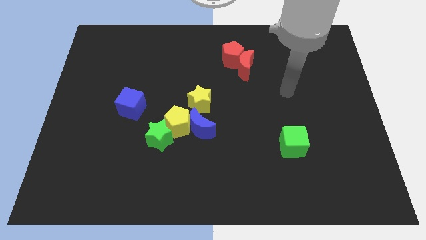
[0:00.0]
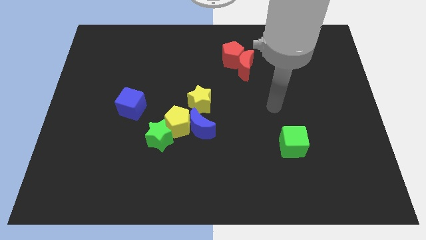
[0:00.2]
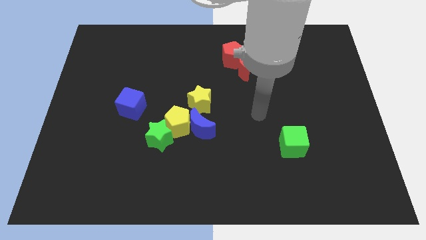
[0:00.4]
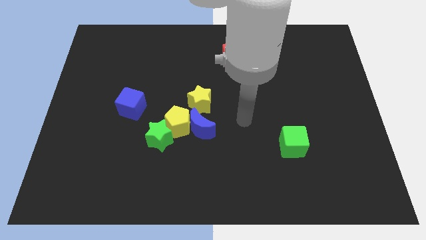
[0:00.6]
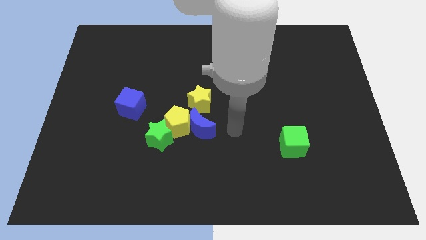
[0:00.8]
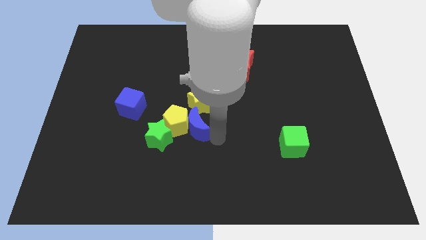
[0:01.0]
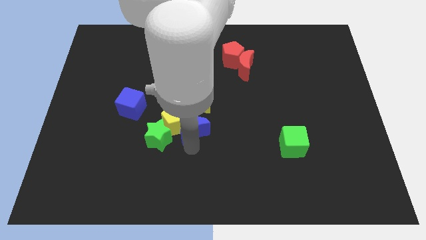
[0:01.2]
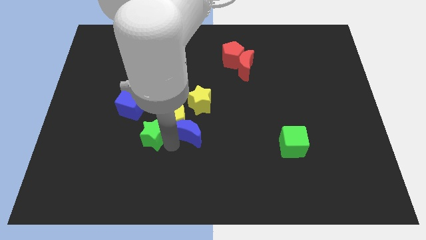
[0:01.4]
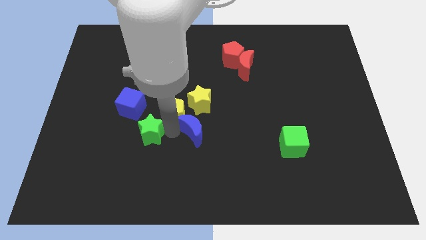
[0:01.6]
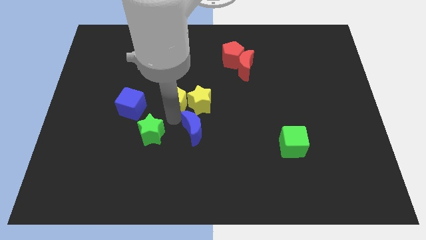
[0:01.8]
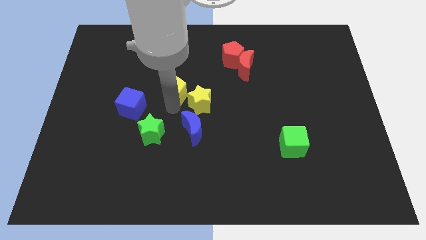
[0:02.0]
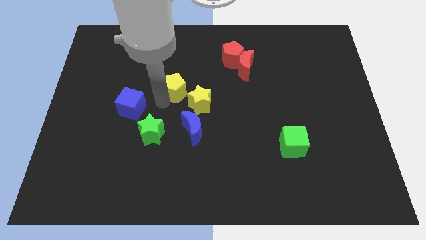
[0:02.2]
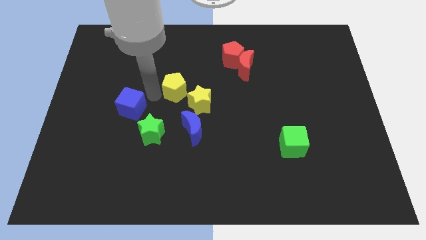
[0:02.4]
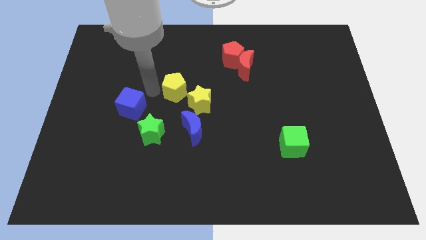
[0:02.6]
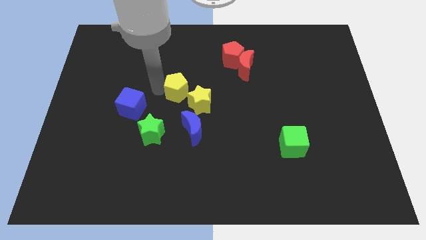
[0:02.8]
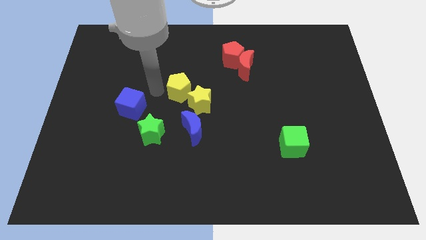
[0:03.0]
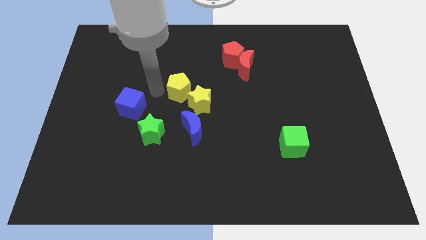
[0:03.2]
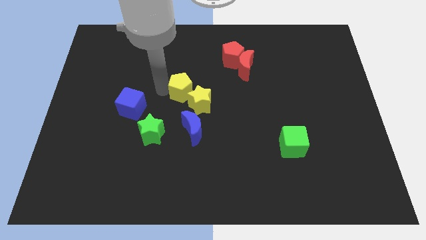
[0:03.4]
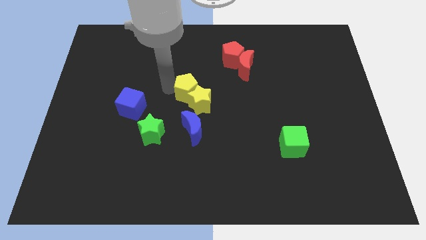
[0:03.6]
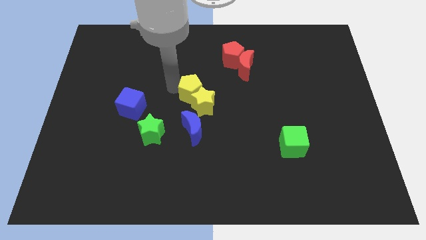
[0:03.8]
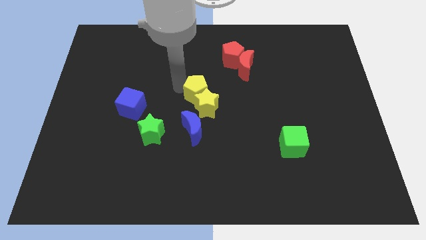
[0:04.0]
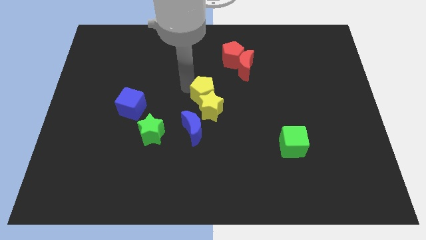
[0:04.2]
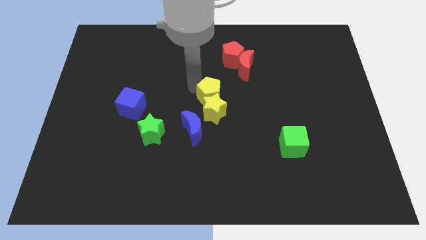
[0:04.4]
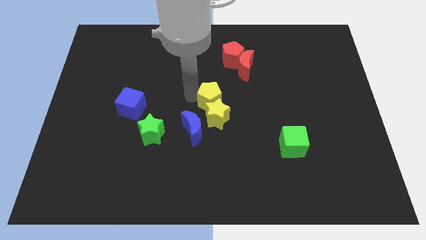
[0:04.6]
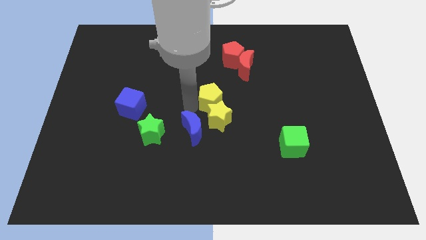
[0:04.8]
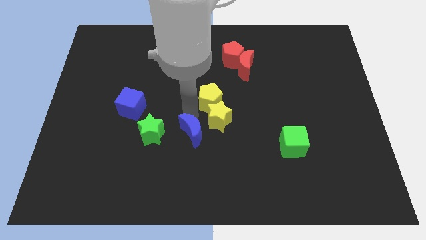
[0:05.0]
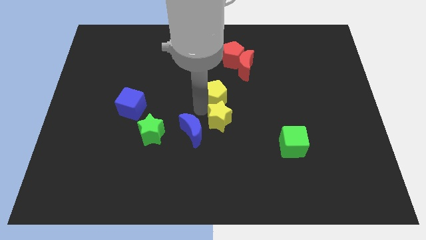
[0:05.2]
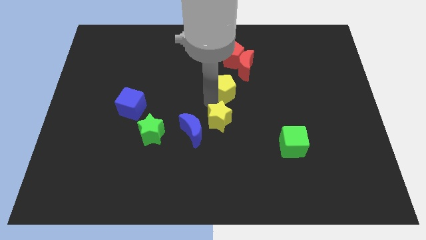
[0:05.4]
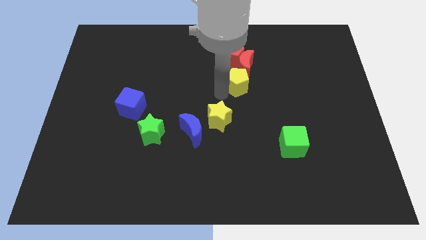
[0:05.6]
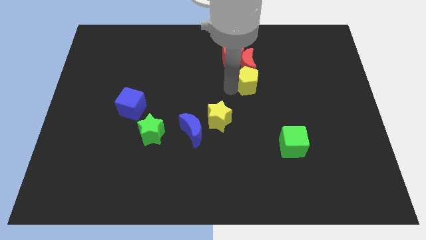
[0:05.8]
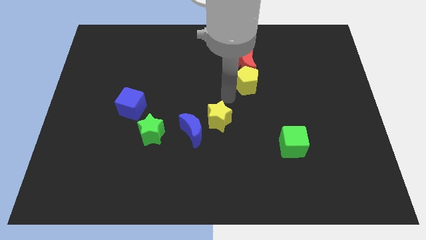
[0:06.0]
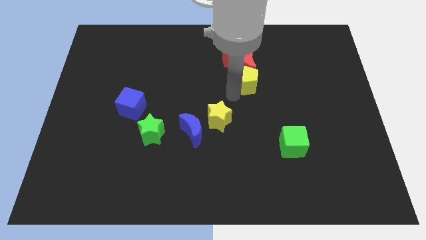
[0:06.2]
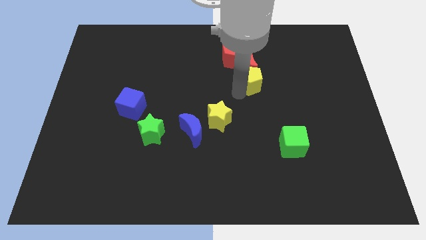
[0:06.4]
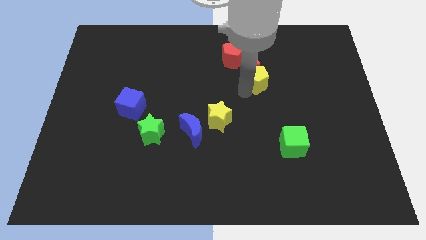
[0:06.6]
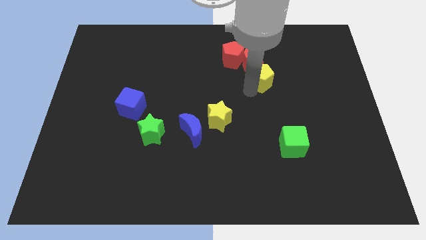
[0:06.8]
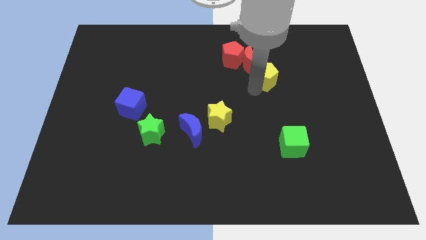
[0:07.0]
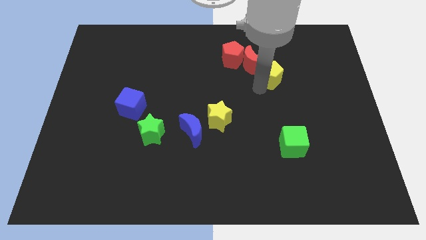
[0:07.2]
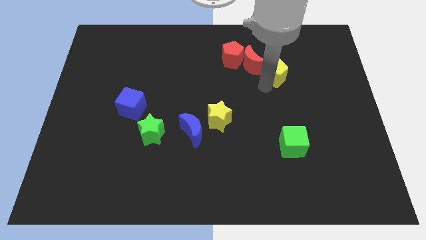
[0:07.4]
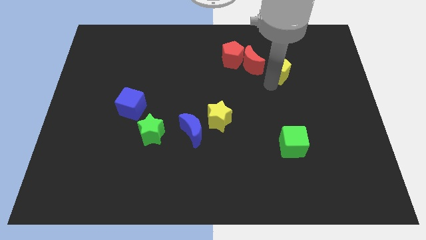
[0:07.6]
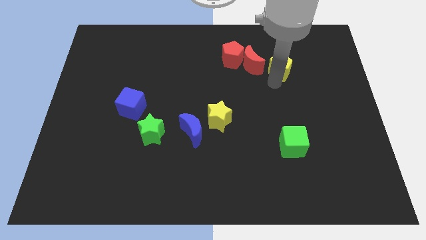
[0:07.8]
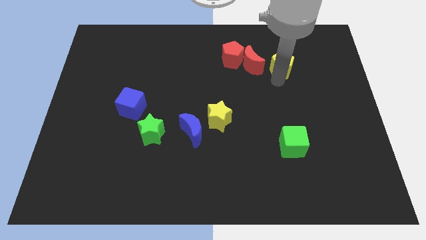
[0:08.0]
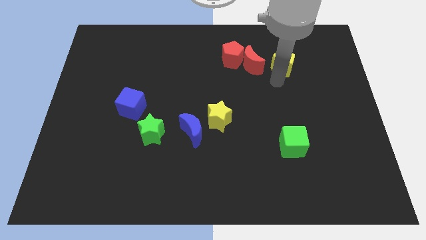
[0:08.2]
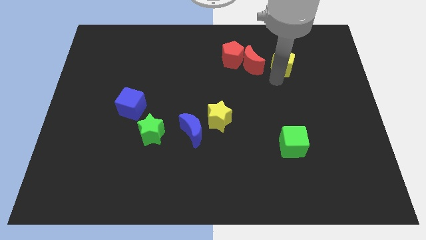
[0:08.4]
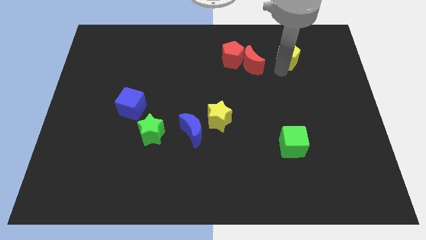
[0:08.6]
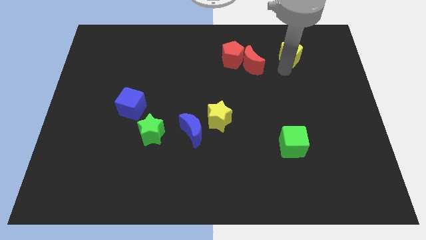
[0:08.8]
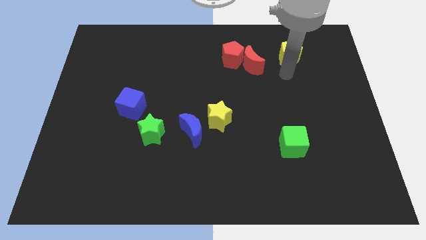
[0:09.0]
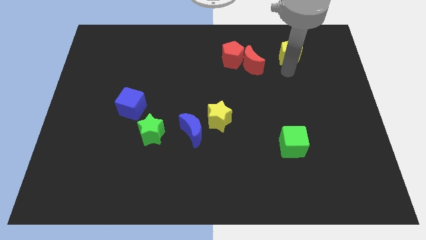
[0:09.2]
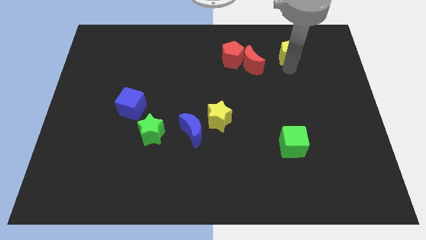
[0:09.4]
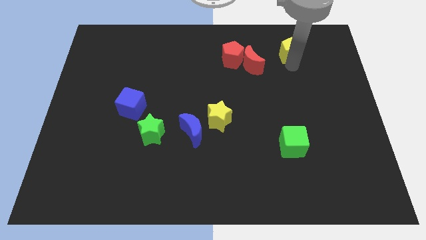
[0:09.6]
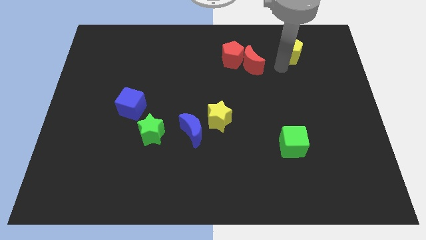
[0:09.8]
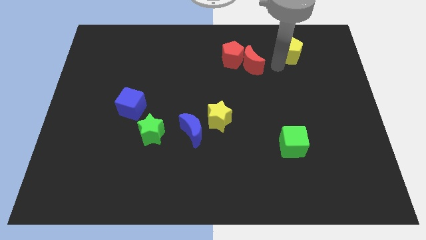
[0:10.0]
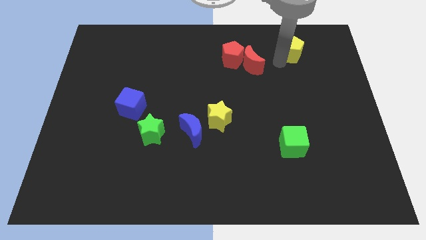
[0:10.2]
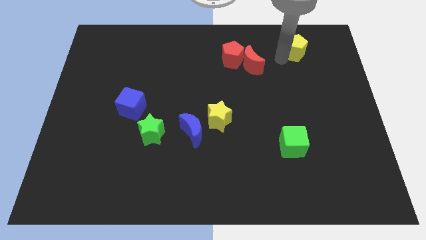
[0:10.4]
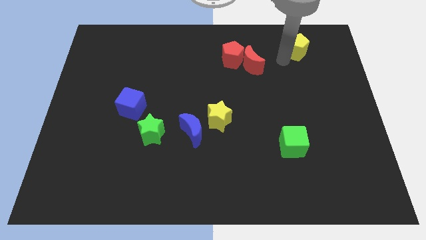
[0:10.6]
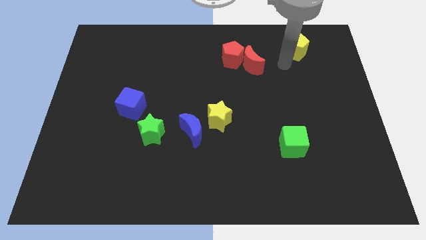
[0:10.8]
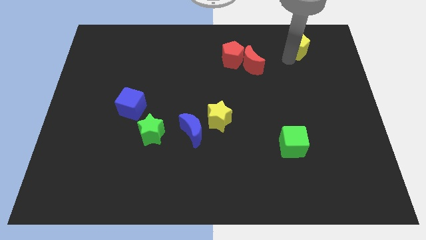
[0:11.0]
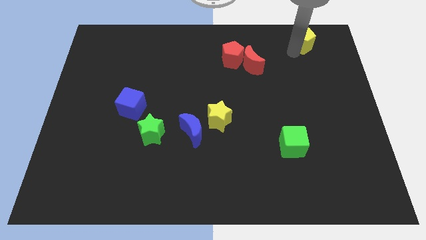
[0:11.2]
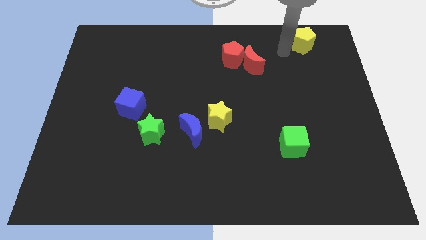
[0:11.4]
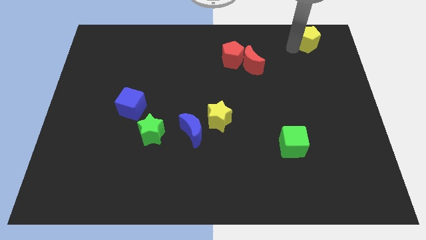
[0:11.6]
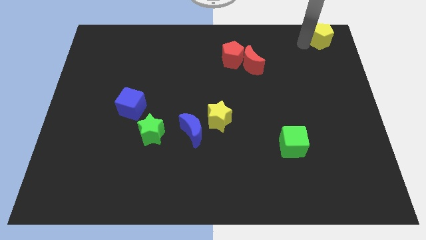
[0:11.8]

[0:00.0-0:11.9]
put the yellow pentagon to the top right
